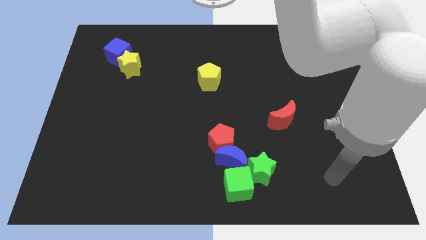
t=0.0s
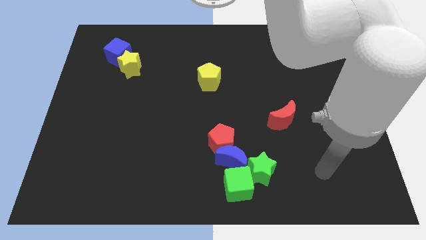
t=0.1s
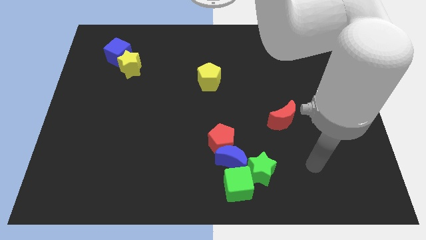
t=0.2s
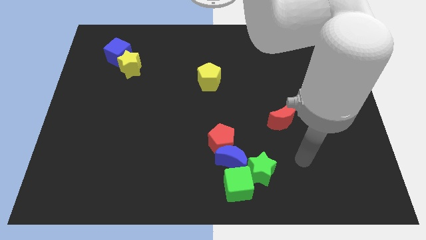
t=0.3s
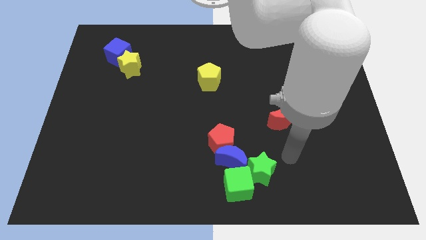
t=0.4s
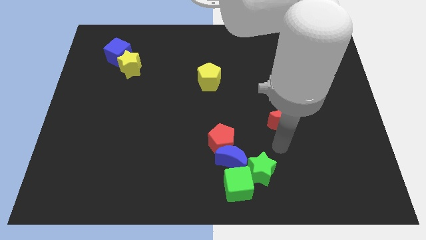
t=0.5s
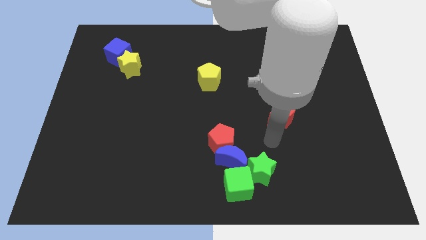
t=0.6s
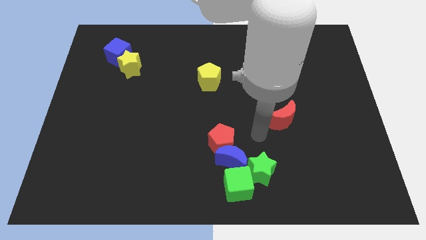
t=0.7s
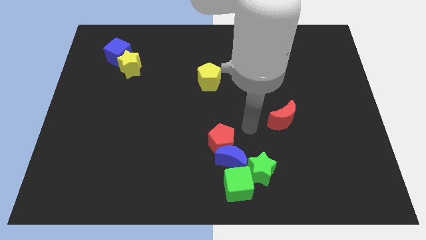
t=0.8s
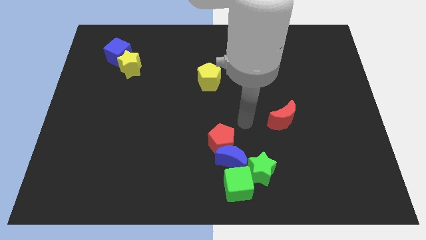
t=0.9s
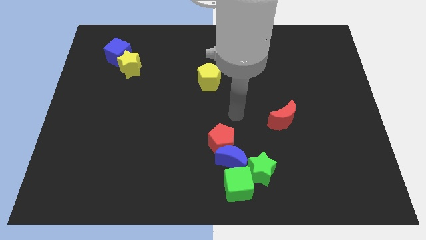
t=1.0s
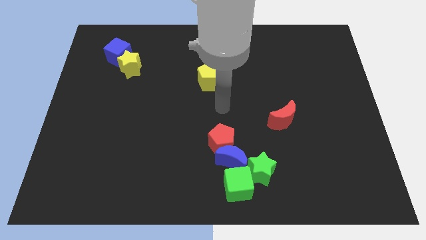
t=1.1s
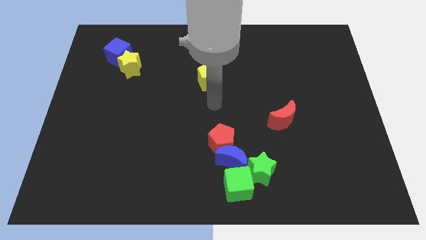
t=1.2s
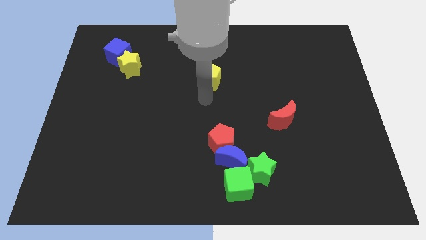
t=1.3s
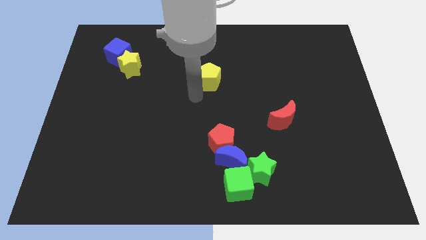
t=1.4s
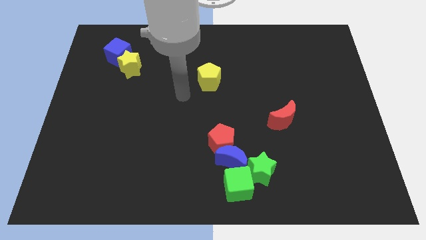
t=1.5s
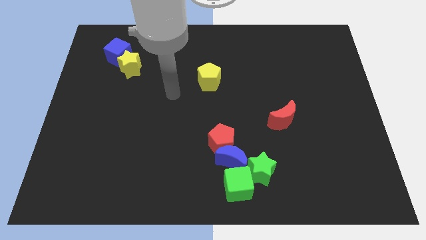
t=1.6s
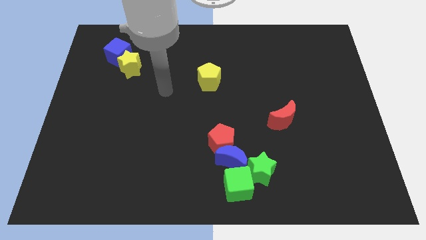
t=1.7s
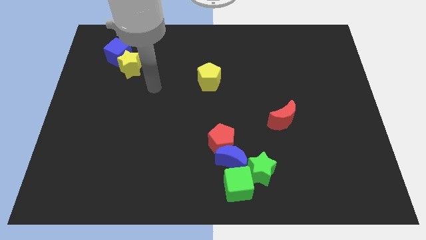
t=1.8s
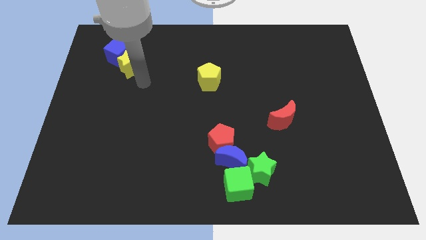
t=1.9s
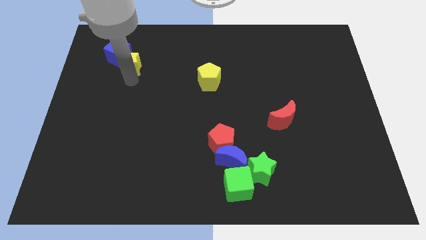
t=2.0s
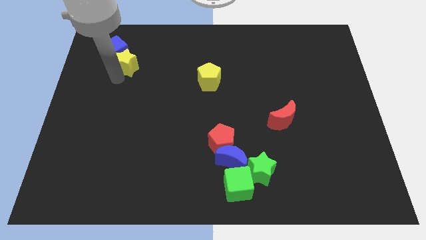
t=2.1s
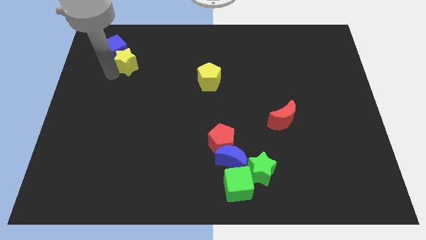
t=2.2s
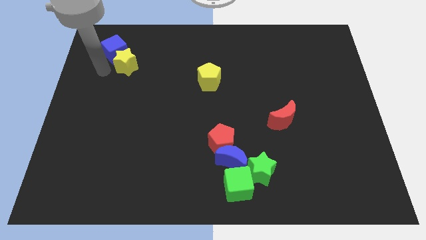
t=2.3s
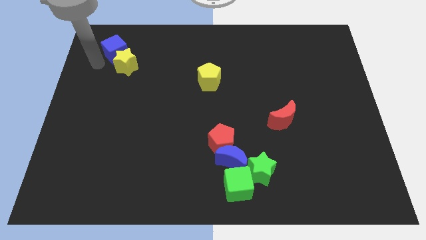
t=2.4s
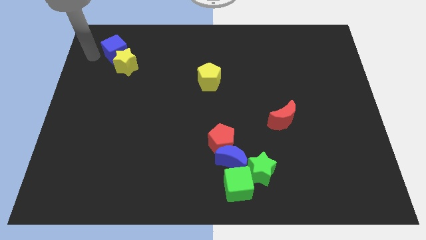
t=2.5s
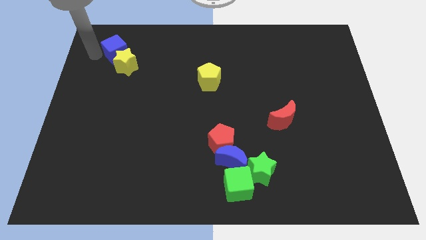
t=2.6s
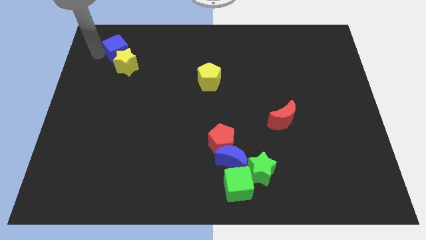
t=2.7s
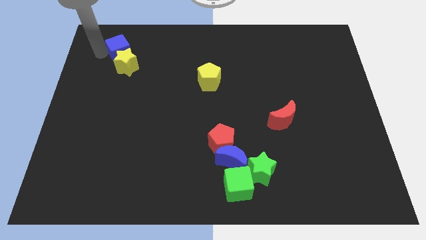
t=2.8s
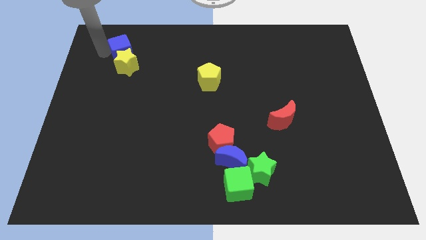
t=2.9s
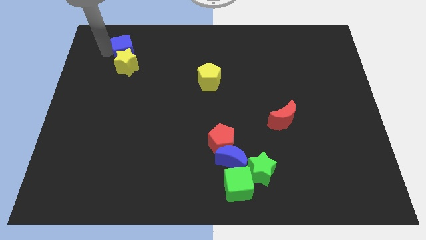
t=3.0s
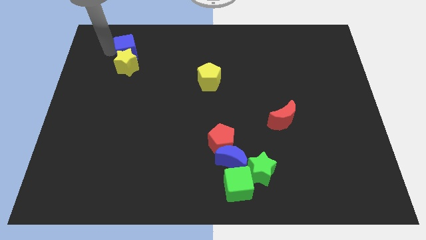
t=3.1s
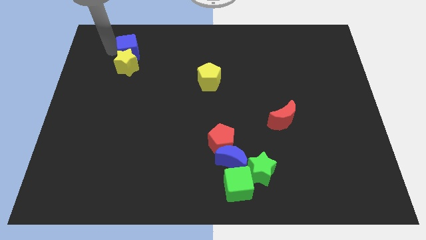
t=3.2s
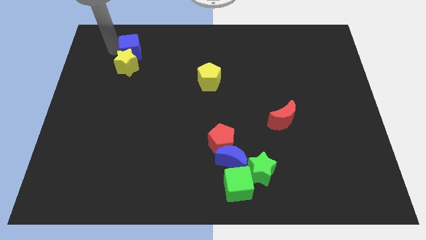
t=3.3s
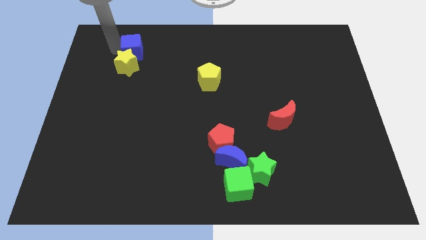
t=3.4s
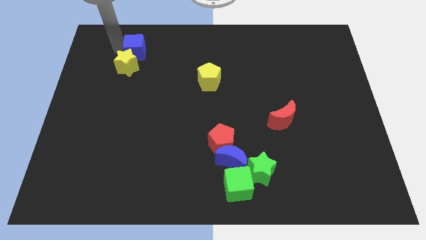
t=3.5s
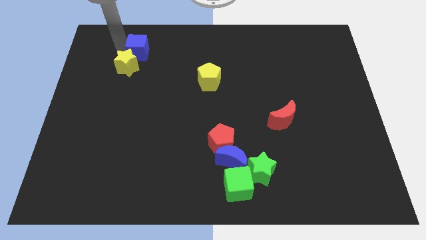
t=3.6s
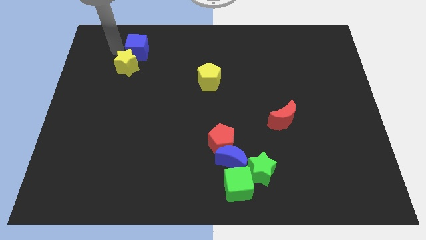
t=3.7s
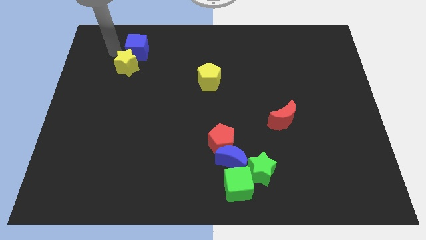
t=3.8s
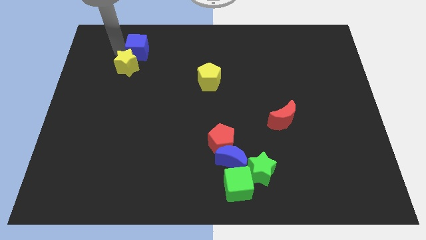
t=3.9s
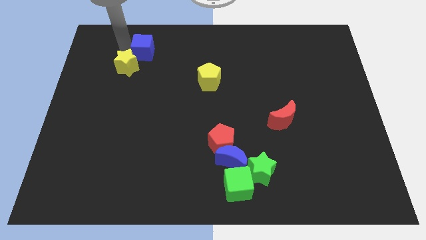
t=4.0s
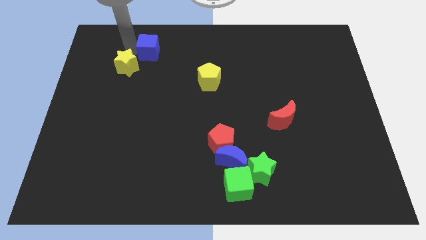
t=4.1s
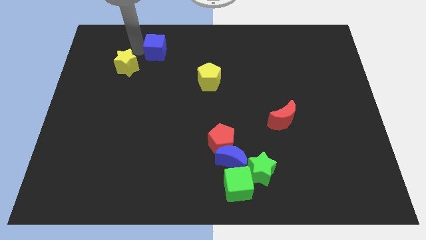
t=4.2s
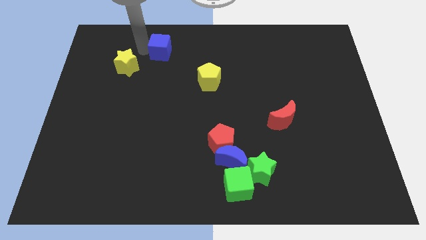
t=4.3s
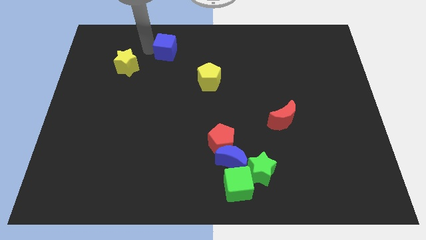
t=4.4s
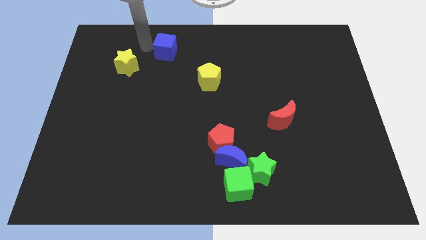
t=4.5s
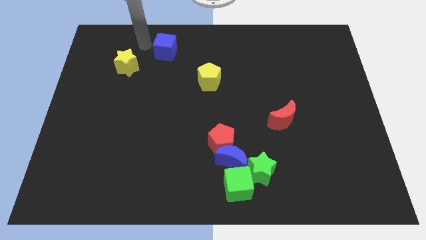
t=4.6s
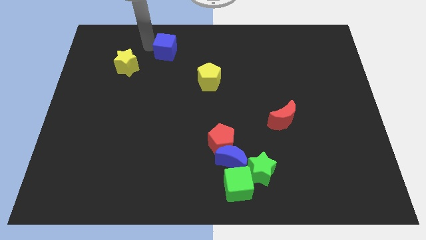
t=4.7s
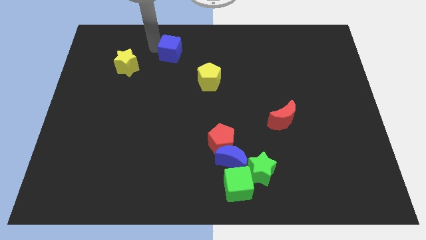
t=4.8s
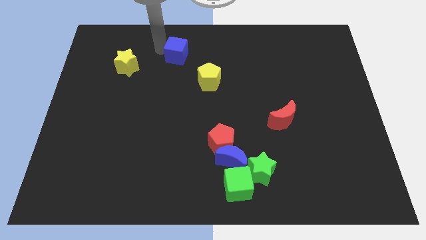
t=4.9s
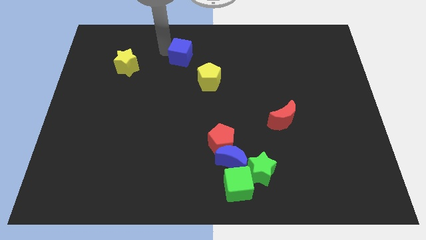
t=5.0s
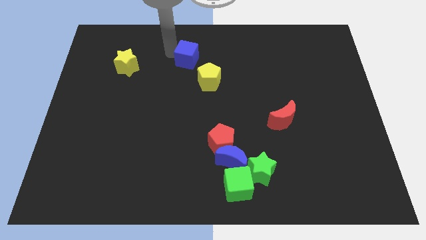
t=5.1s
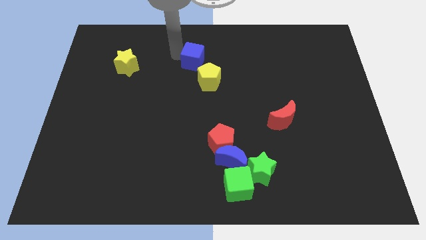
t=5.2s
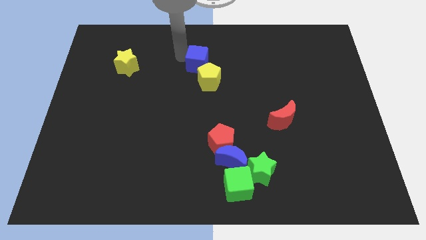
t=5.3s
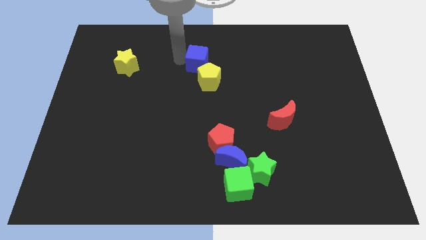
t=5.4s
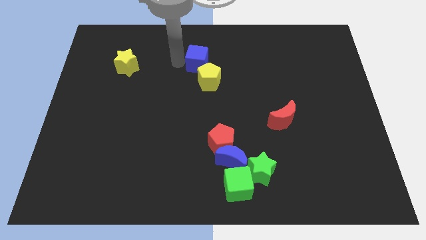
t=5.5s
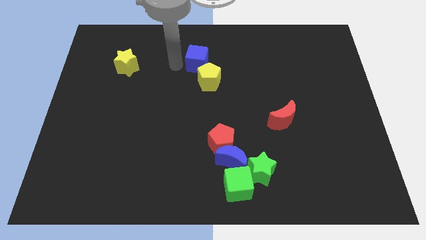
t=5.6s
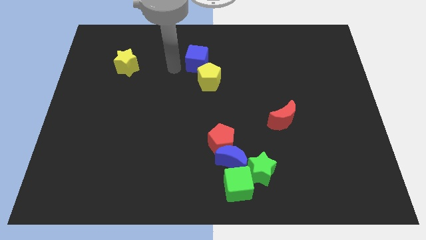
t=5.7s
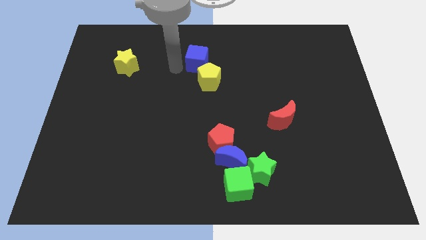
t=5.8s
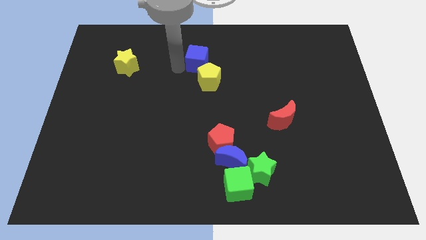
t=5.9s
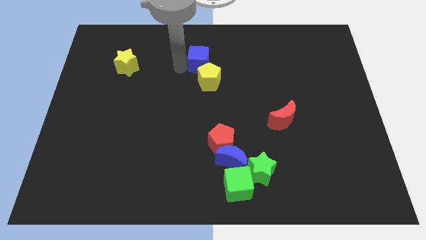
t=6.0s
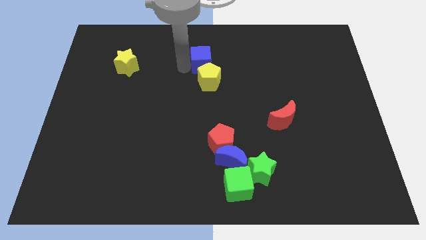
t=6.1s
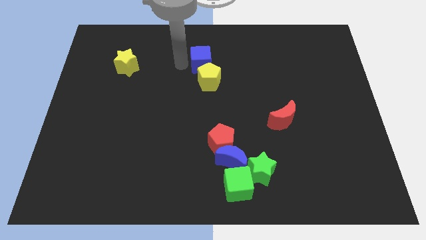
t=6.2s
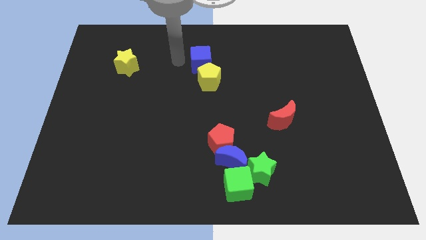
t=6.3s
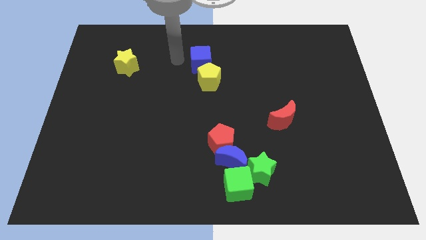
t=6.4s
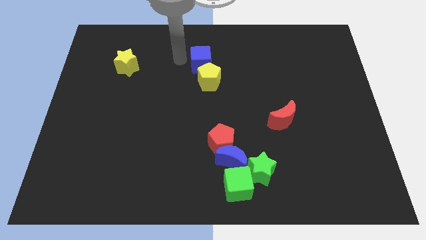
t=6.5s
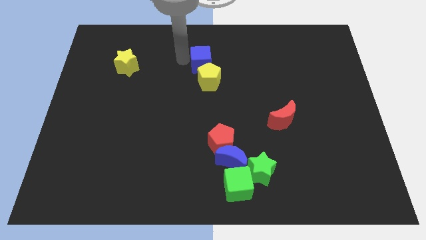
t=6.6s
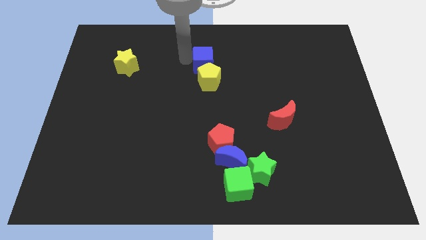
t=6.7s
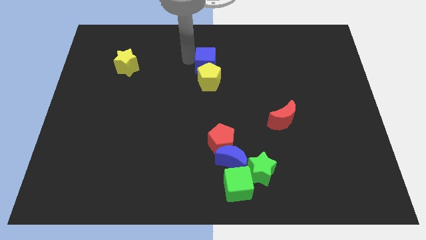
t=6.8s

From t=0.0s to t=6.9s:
push the blue cube to the top right of the yellow pentagon
